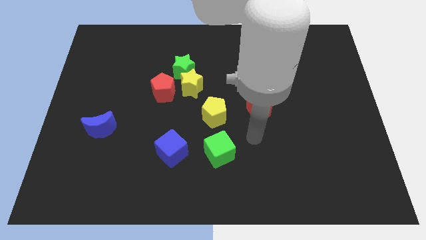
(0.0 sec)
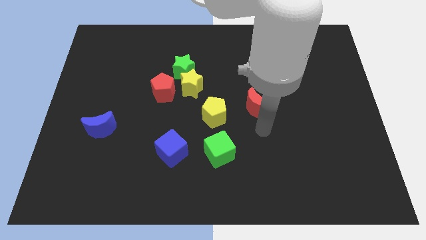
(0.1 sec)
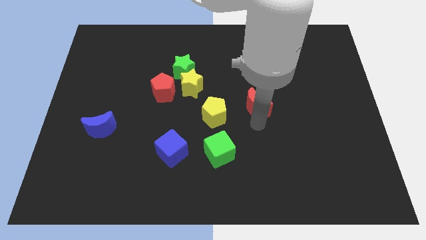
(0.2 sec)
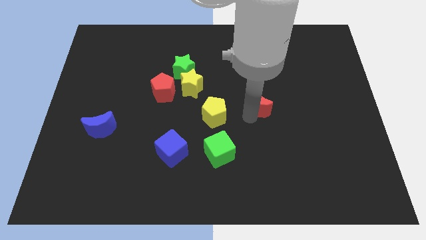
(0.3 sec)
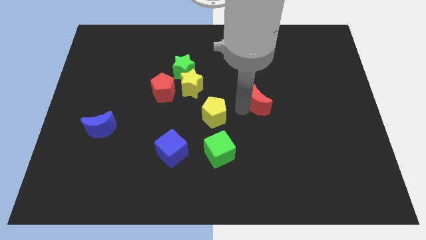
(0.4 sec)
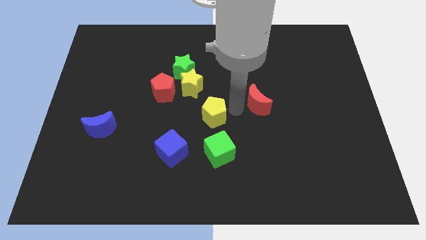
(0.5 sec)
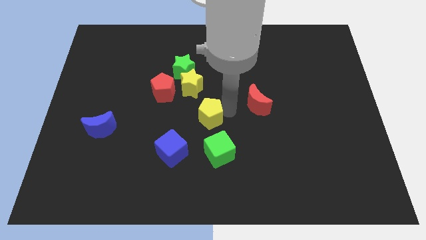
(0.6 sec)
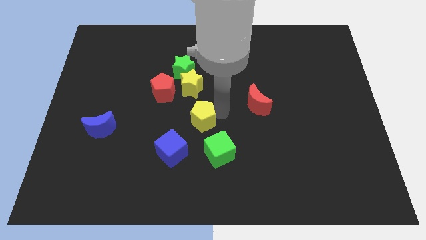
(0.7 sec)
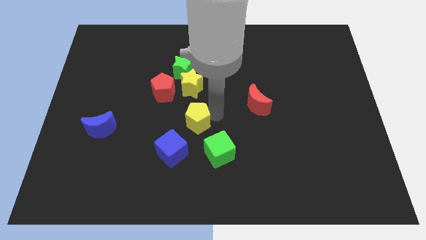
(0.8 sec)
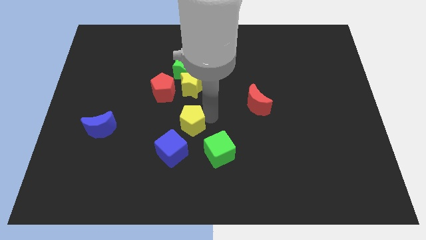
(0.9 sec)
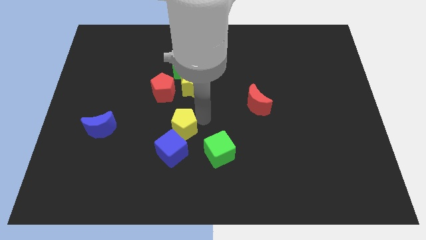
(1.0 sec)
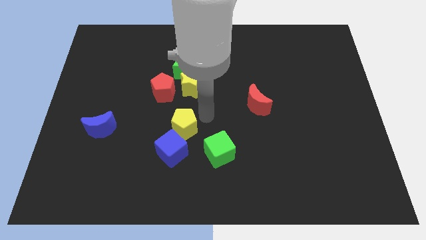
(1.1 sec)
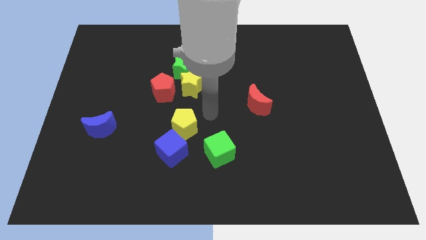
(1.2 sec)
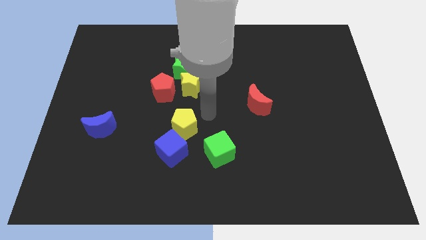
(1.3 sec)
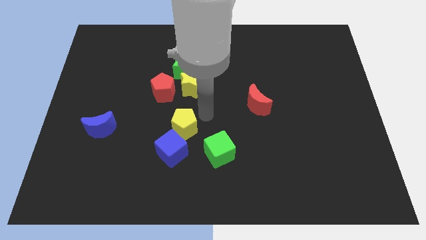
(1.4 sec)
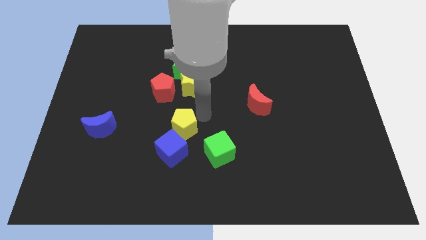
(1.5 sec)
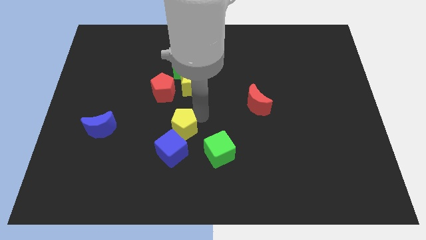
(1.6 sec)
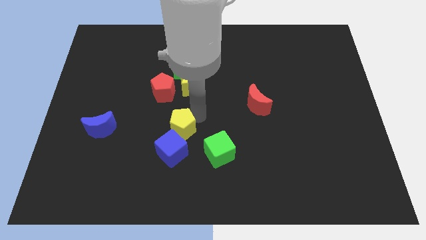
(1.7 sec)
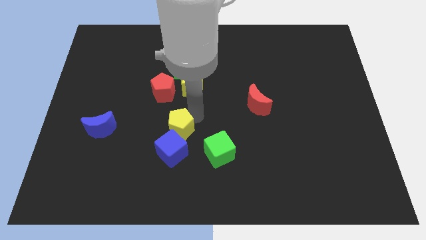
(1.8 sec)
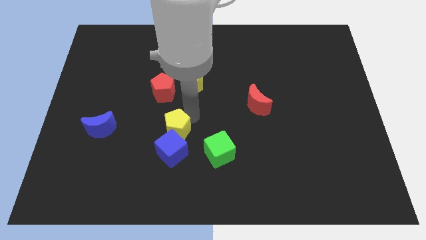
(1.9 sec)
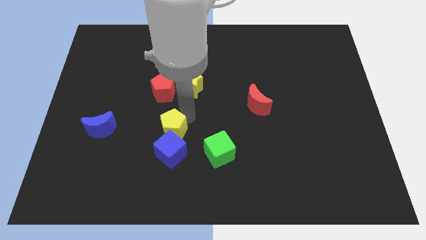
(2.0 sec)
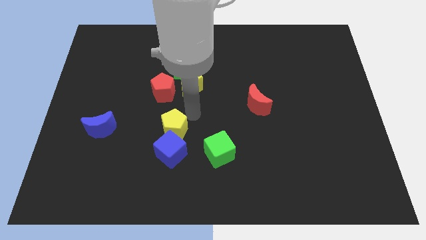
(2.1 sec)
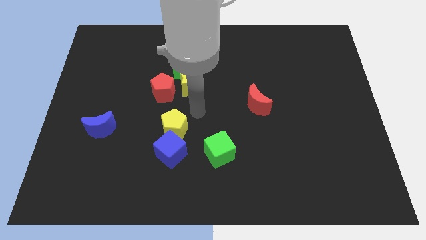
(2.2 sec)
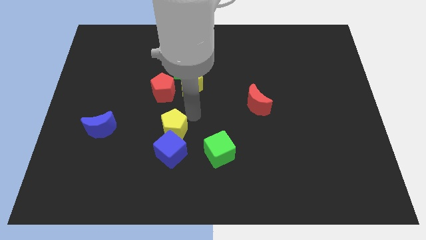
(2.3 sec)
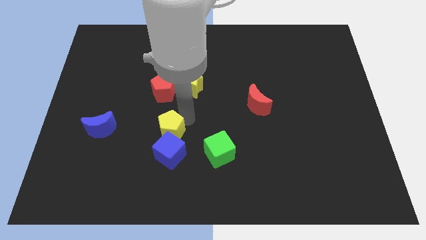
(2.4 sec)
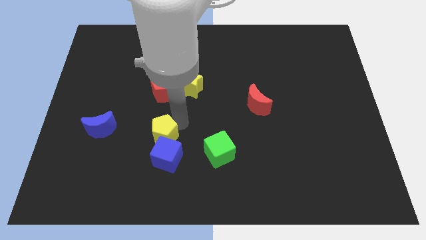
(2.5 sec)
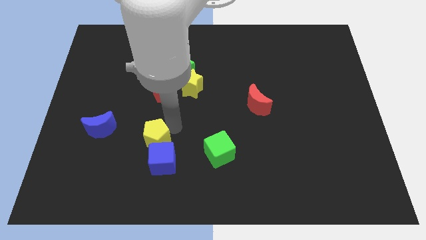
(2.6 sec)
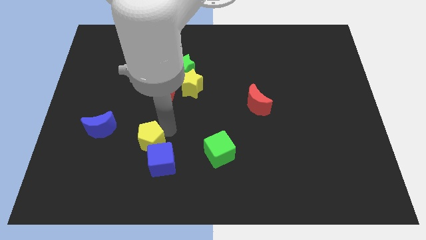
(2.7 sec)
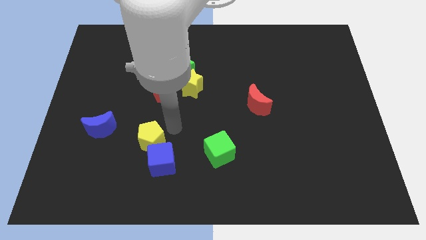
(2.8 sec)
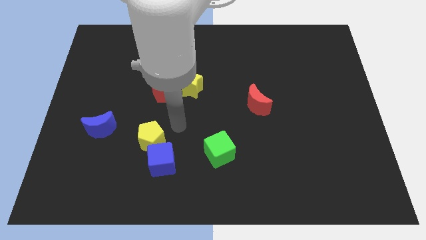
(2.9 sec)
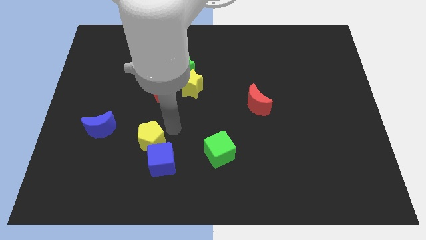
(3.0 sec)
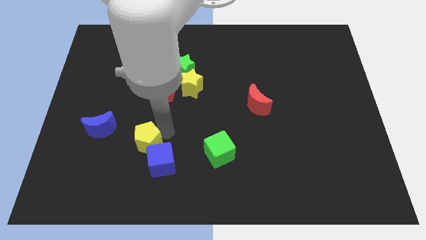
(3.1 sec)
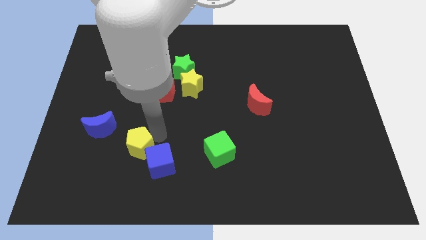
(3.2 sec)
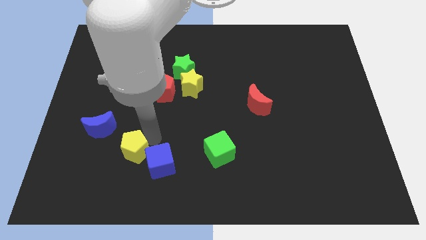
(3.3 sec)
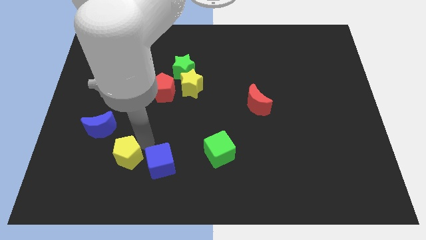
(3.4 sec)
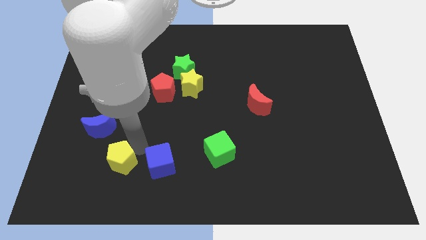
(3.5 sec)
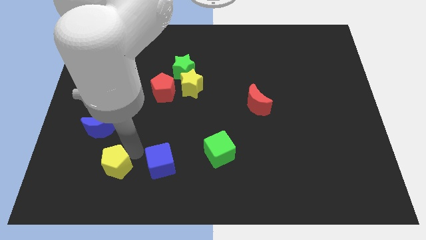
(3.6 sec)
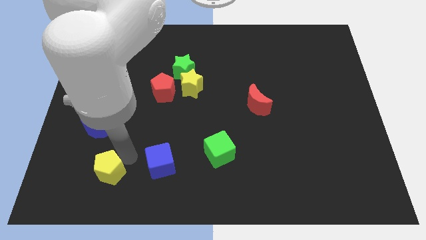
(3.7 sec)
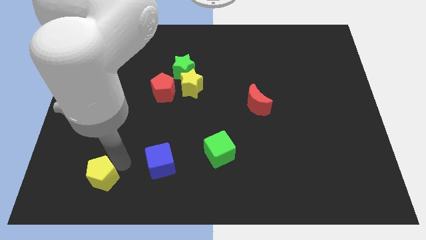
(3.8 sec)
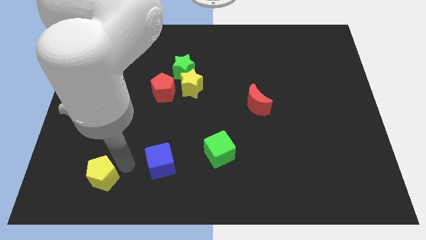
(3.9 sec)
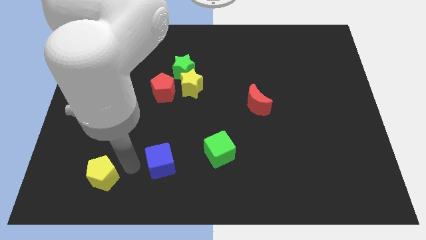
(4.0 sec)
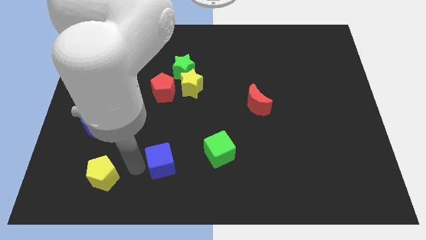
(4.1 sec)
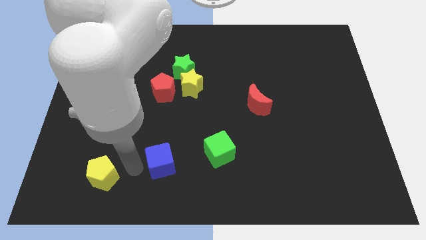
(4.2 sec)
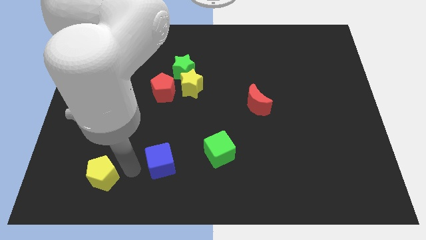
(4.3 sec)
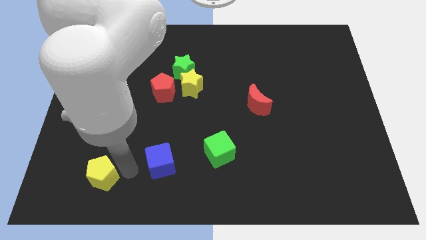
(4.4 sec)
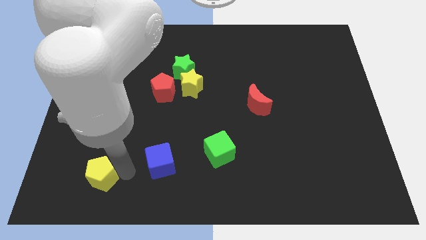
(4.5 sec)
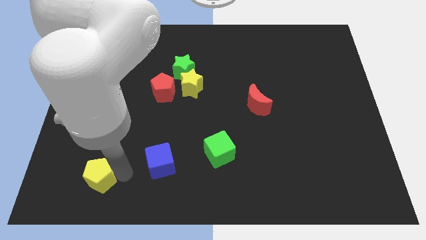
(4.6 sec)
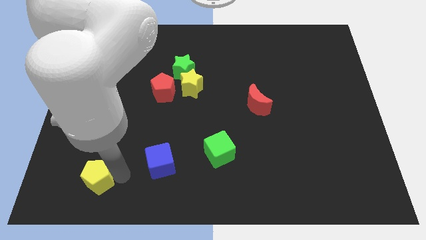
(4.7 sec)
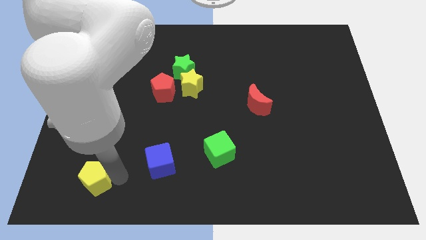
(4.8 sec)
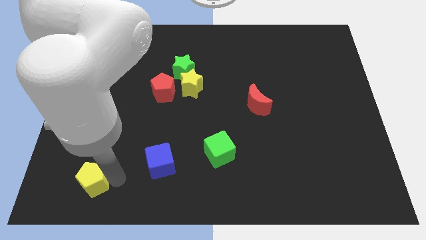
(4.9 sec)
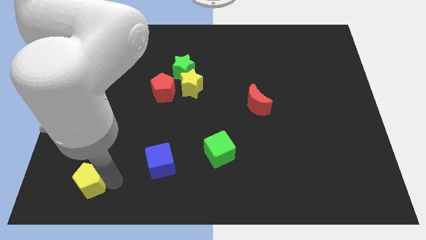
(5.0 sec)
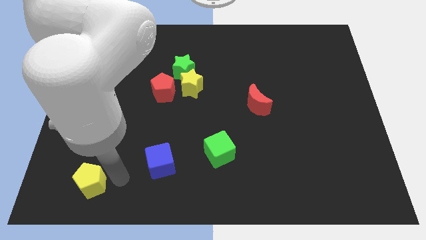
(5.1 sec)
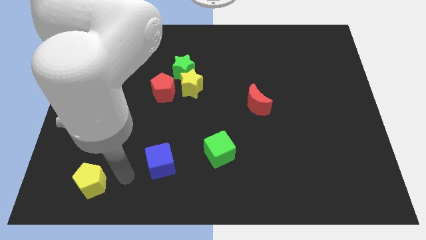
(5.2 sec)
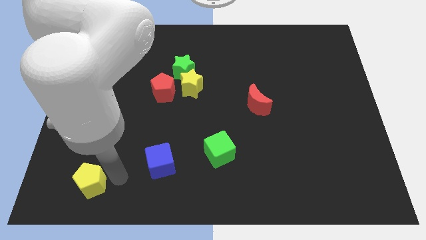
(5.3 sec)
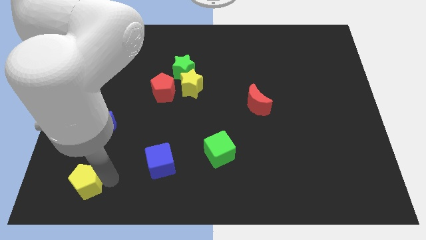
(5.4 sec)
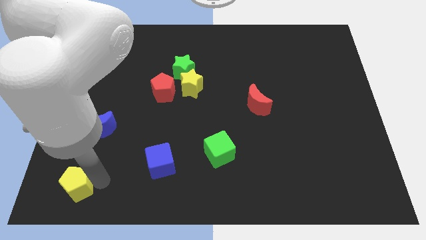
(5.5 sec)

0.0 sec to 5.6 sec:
put the yellow pentagon to the bottom left

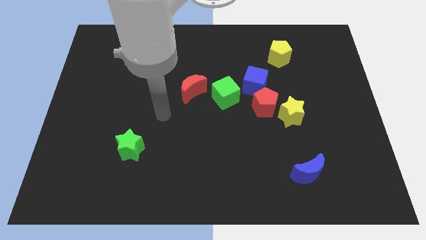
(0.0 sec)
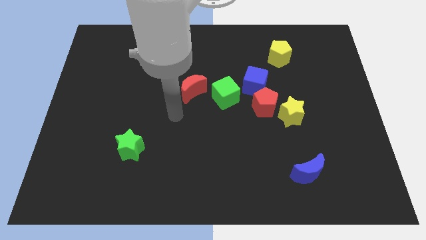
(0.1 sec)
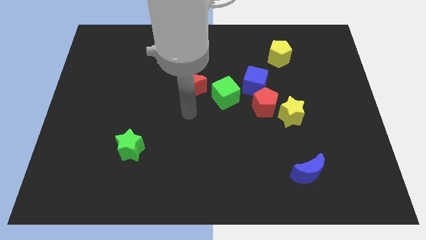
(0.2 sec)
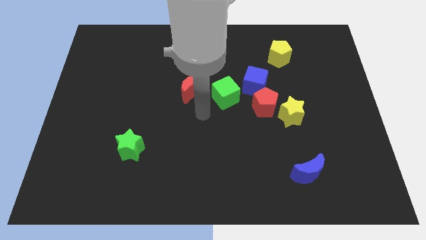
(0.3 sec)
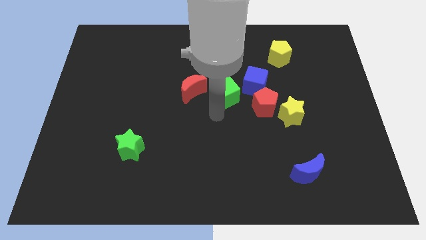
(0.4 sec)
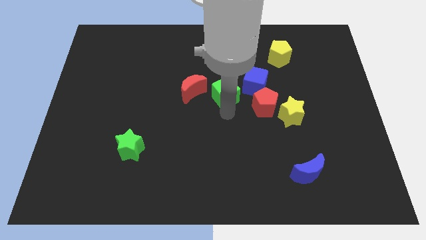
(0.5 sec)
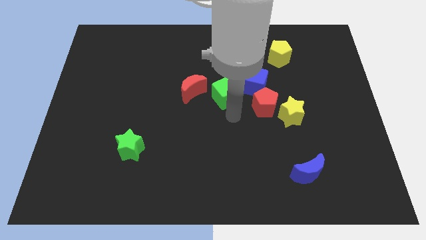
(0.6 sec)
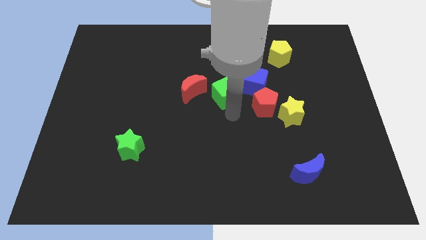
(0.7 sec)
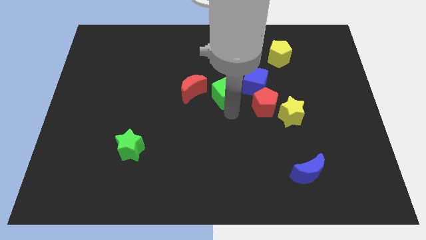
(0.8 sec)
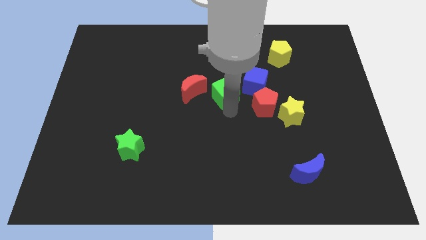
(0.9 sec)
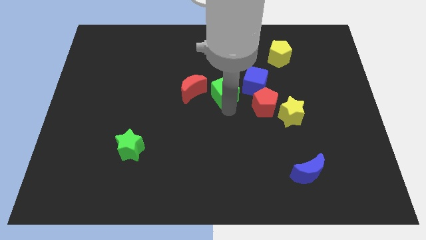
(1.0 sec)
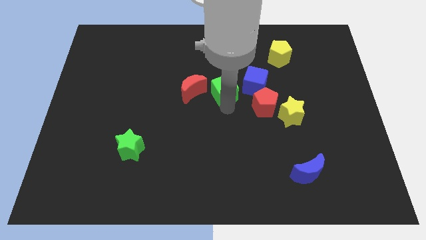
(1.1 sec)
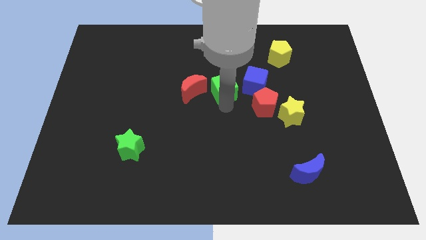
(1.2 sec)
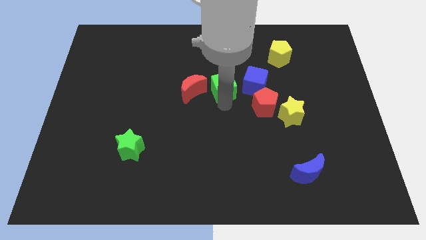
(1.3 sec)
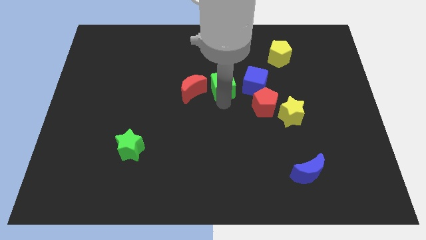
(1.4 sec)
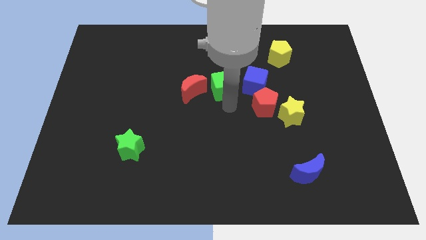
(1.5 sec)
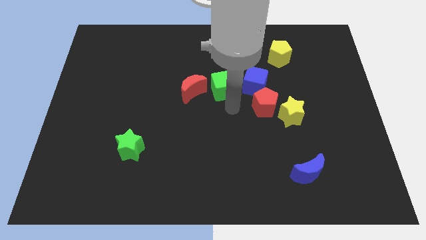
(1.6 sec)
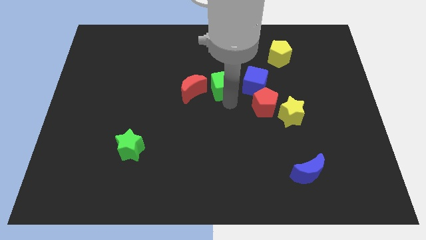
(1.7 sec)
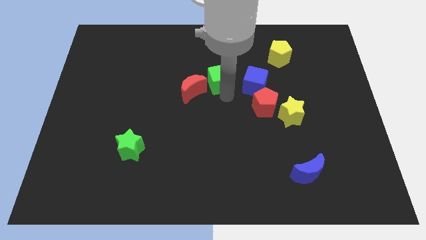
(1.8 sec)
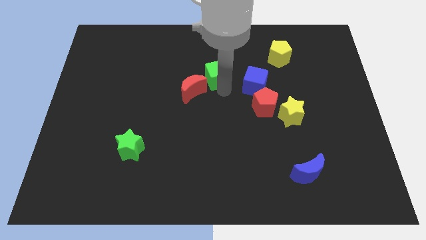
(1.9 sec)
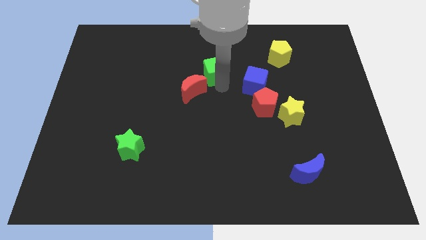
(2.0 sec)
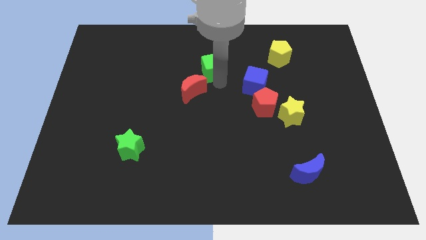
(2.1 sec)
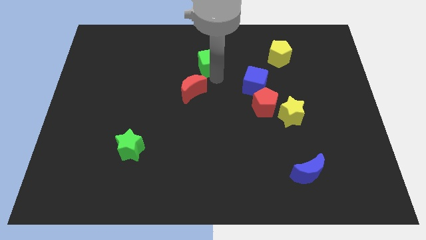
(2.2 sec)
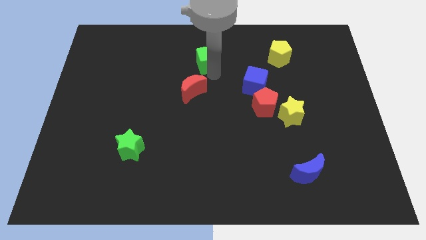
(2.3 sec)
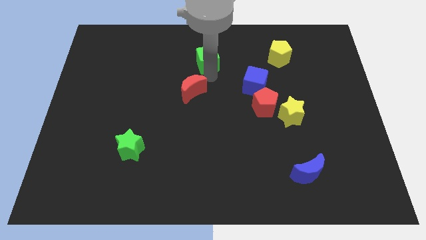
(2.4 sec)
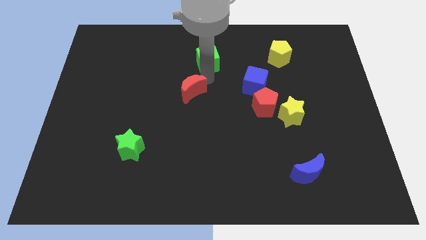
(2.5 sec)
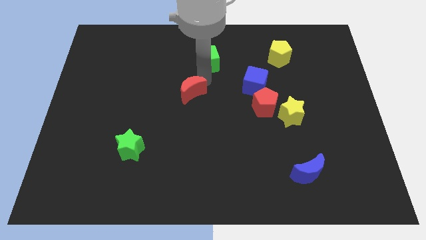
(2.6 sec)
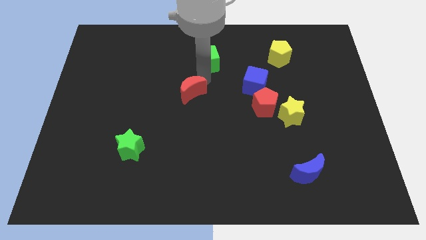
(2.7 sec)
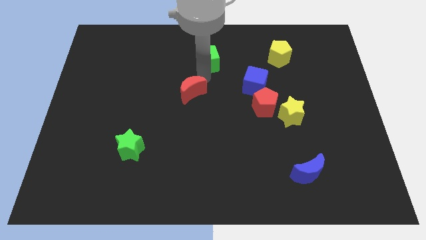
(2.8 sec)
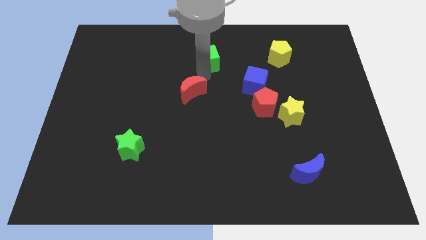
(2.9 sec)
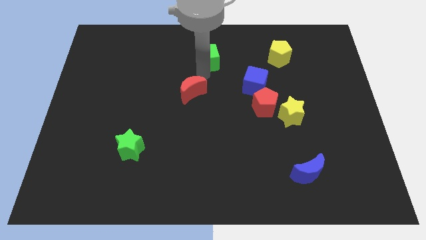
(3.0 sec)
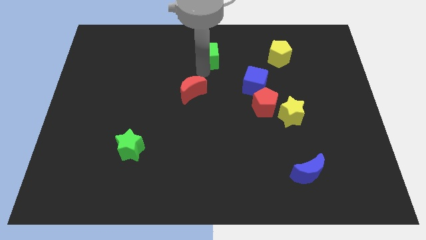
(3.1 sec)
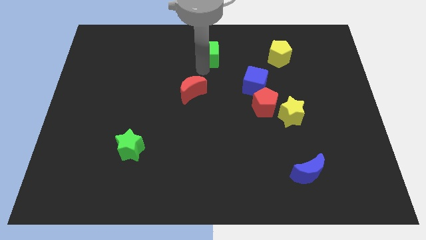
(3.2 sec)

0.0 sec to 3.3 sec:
put the green cube to the top
